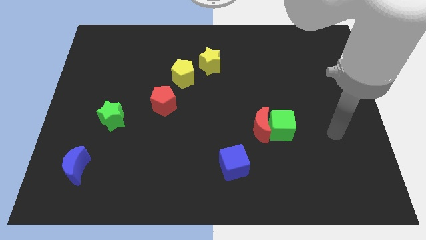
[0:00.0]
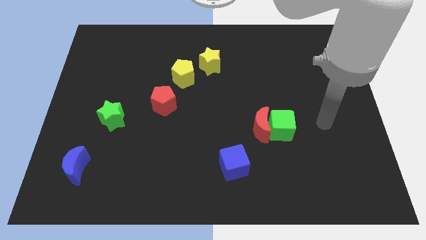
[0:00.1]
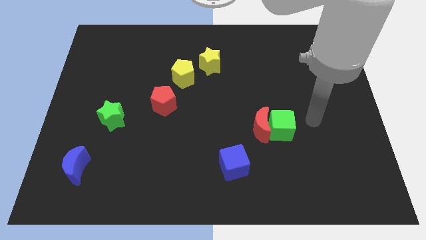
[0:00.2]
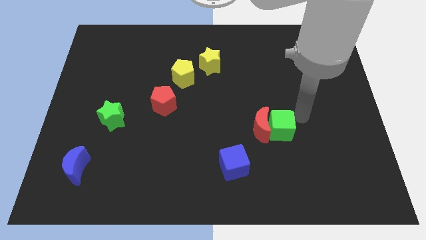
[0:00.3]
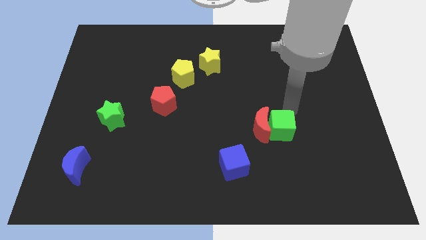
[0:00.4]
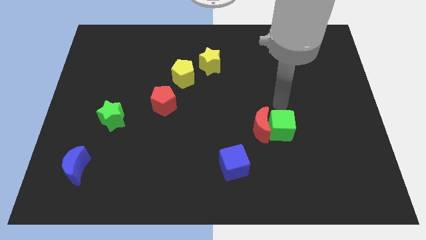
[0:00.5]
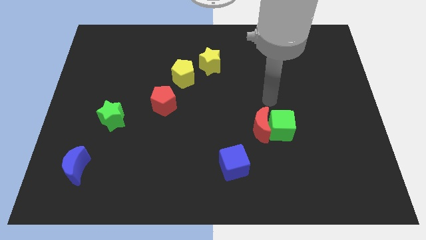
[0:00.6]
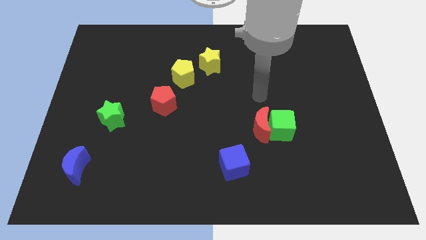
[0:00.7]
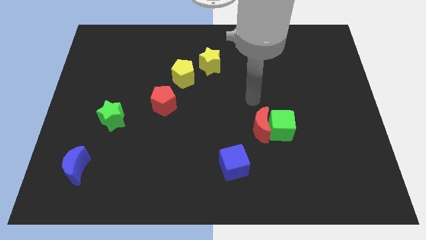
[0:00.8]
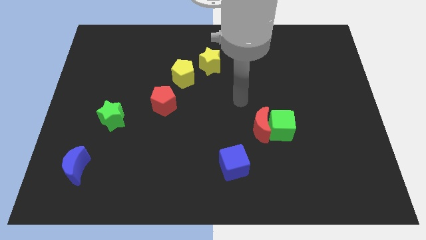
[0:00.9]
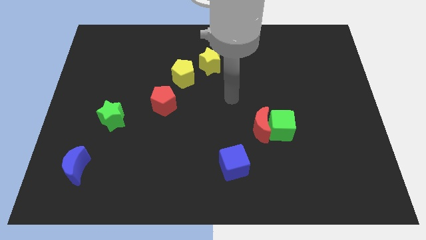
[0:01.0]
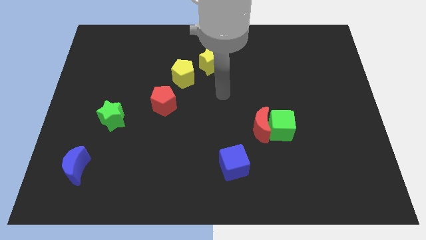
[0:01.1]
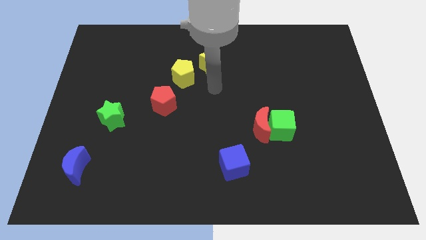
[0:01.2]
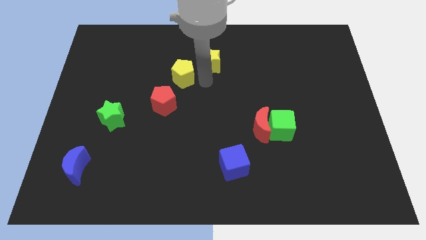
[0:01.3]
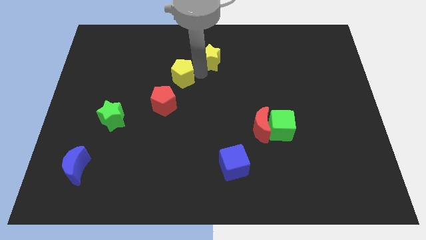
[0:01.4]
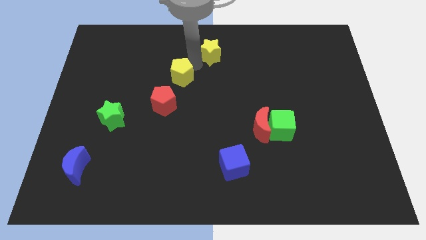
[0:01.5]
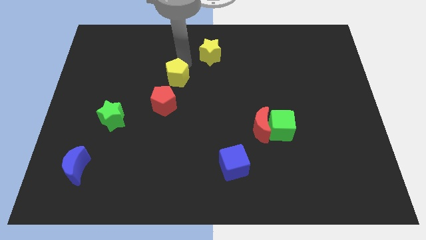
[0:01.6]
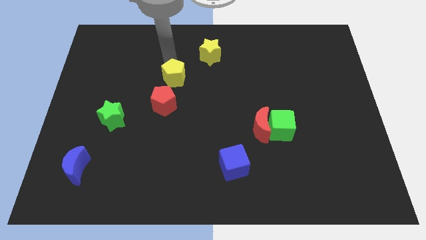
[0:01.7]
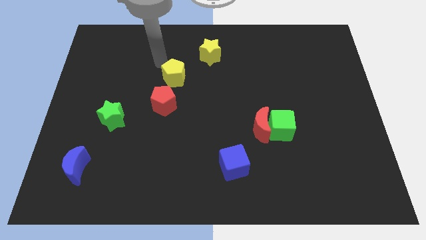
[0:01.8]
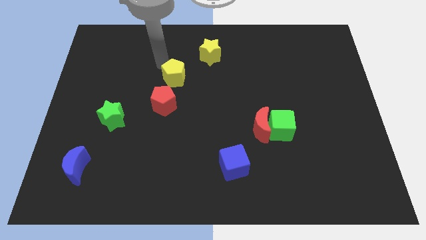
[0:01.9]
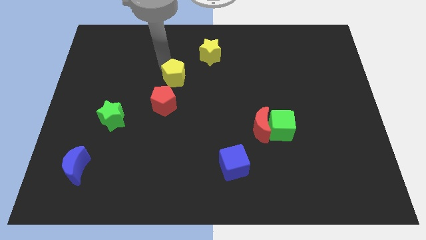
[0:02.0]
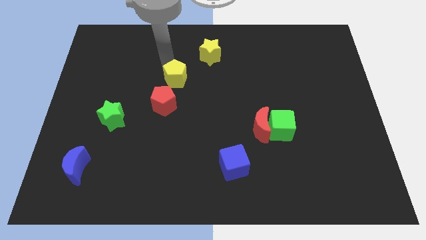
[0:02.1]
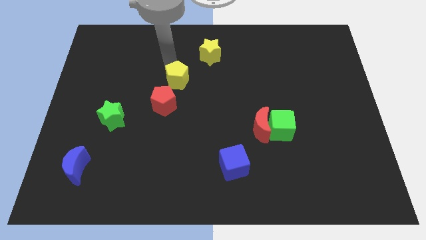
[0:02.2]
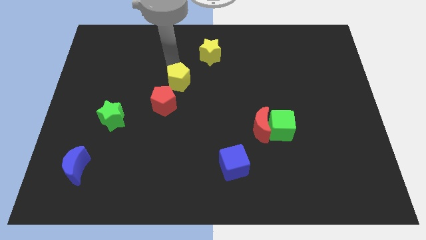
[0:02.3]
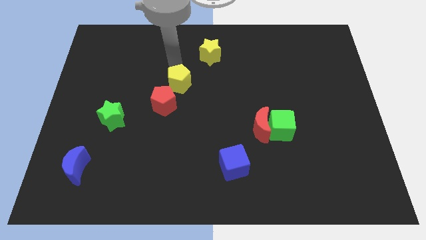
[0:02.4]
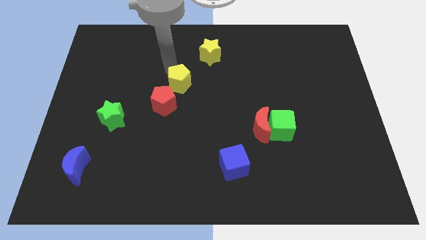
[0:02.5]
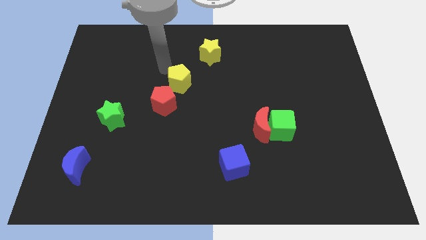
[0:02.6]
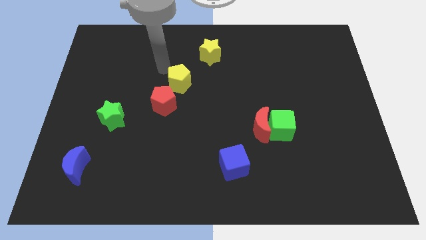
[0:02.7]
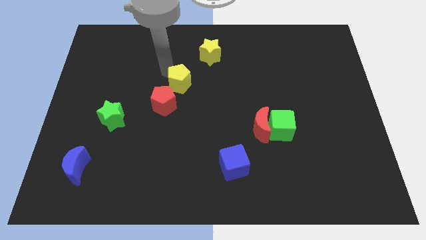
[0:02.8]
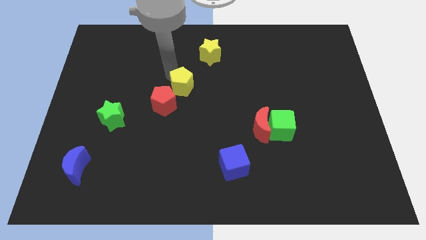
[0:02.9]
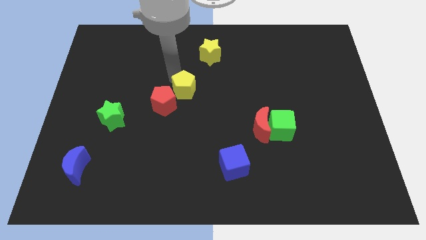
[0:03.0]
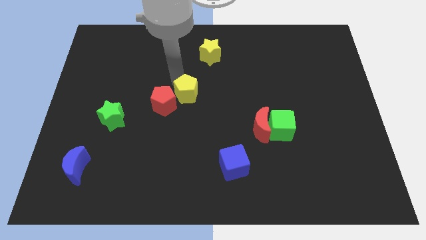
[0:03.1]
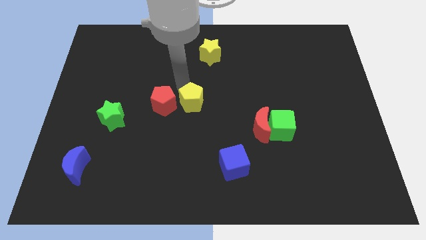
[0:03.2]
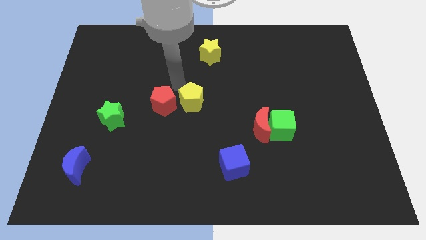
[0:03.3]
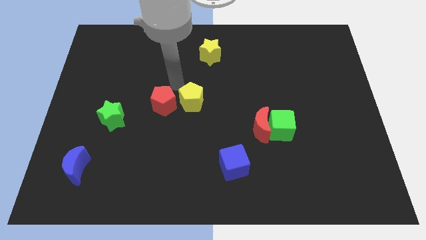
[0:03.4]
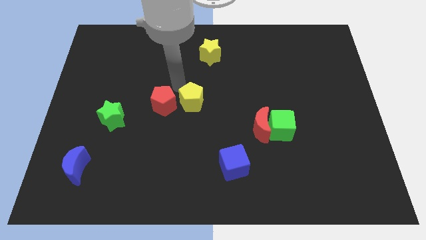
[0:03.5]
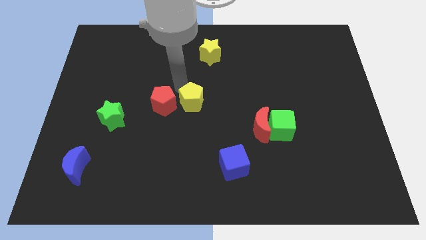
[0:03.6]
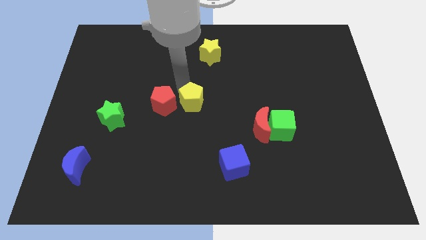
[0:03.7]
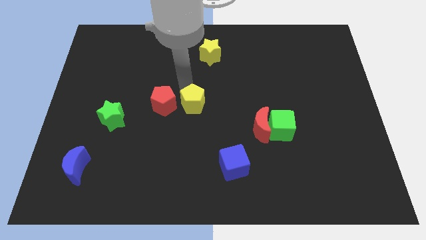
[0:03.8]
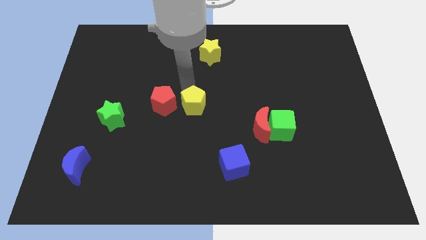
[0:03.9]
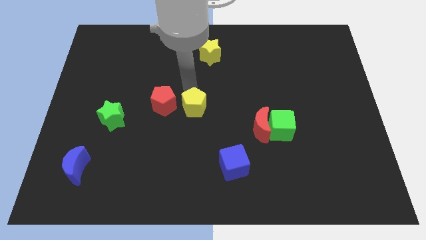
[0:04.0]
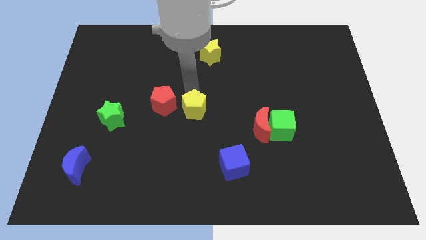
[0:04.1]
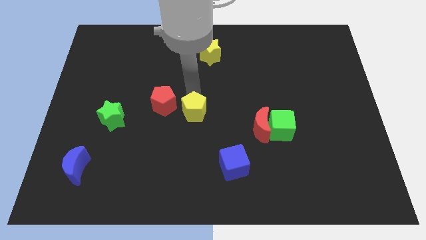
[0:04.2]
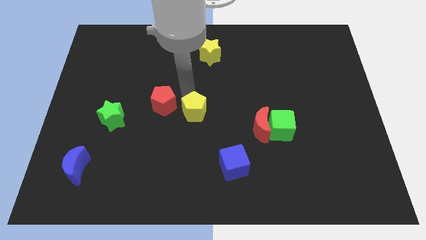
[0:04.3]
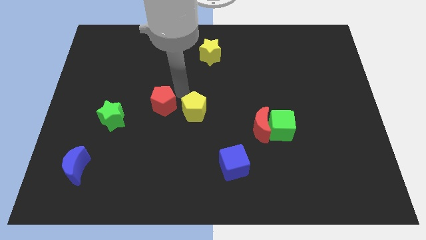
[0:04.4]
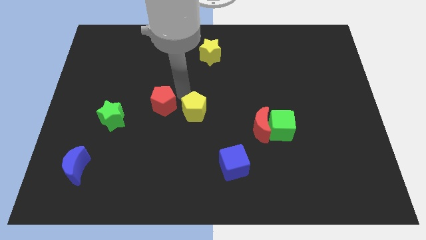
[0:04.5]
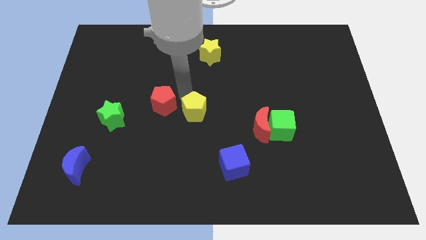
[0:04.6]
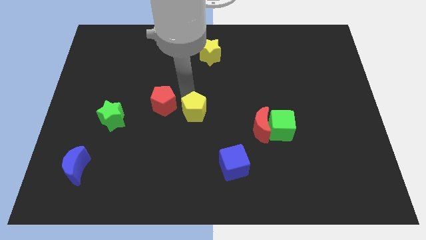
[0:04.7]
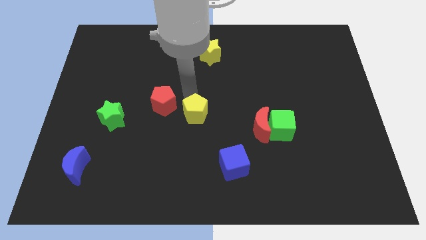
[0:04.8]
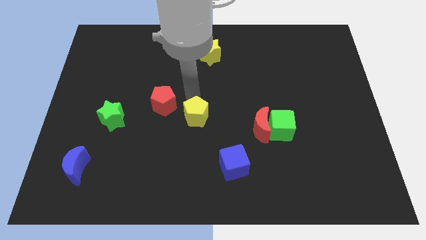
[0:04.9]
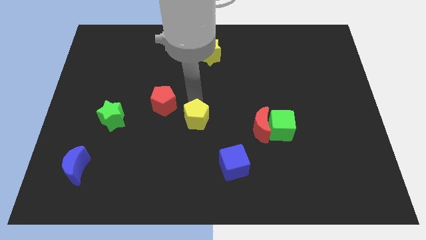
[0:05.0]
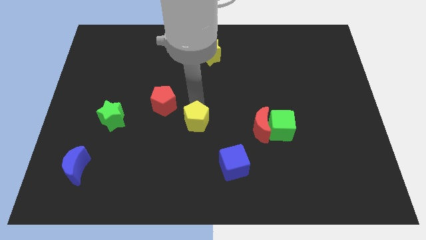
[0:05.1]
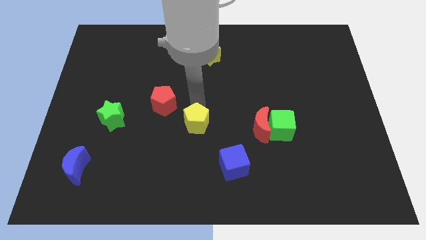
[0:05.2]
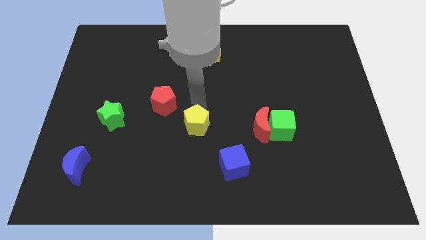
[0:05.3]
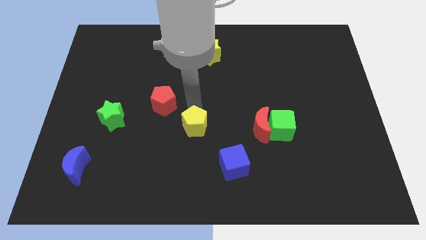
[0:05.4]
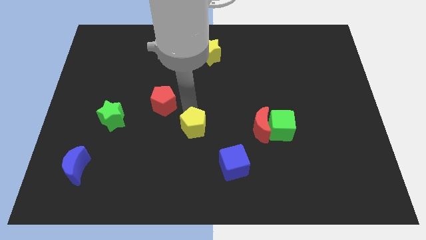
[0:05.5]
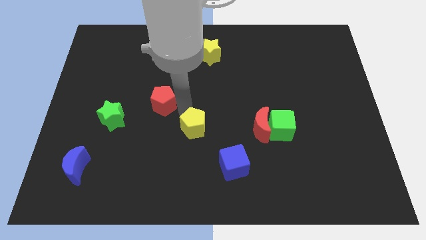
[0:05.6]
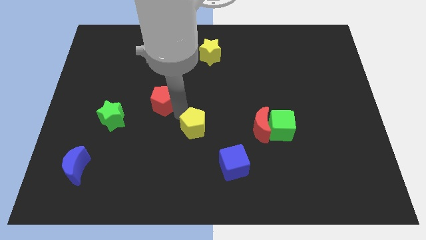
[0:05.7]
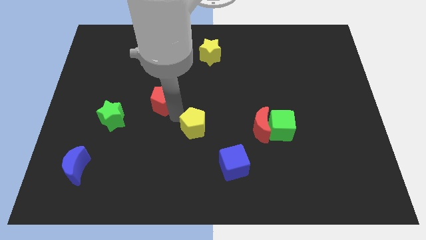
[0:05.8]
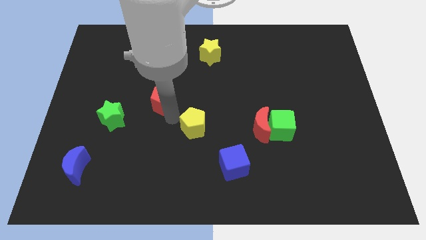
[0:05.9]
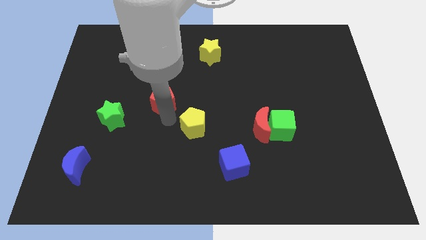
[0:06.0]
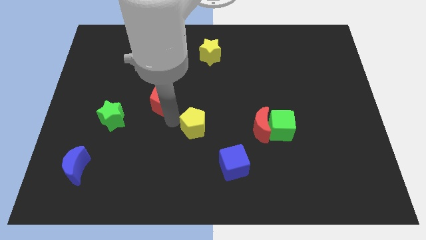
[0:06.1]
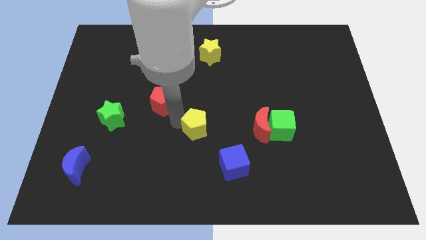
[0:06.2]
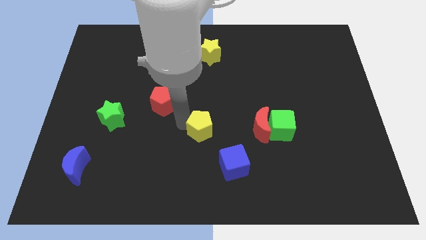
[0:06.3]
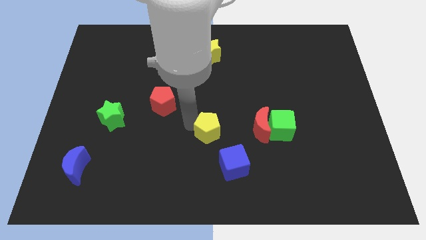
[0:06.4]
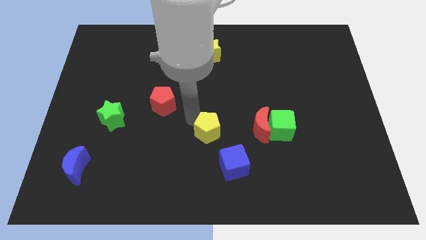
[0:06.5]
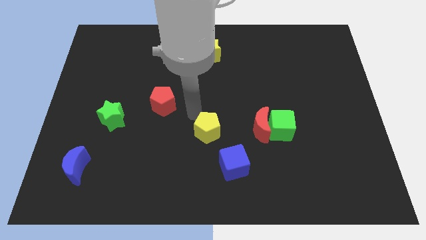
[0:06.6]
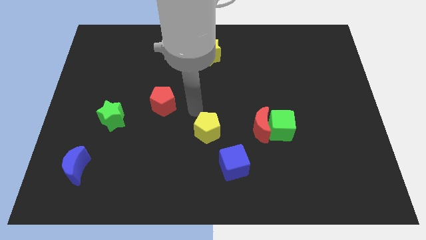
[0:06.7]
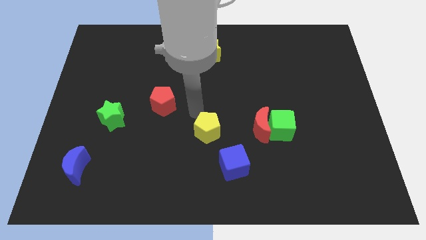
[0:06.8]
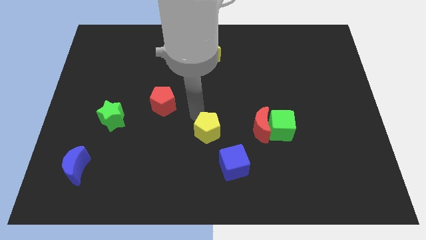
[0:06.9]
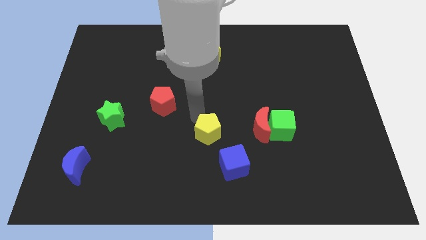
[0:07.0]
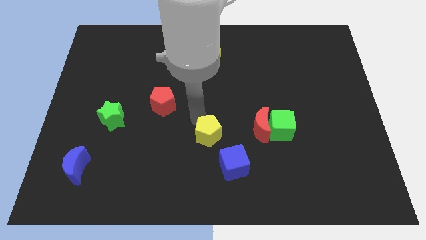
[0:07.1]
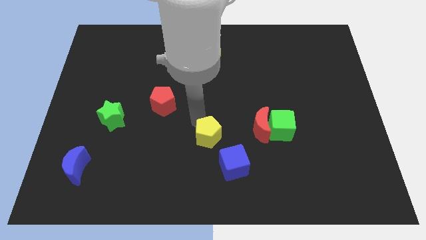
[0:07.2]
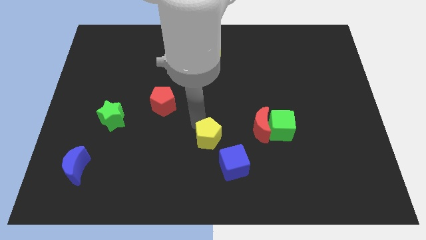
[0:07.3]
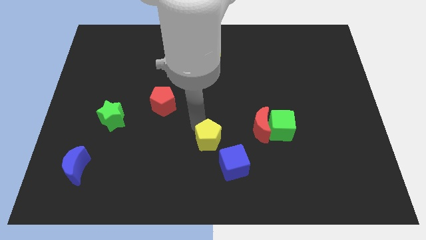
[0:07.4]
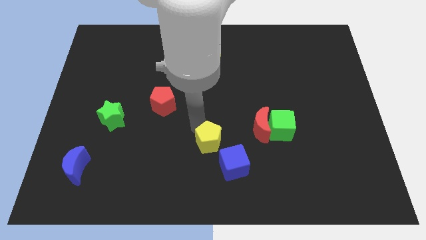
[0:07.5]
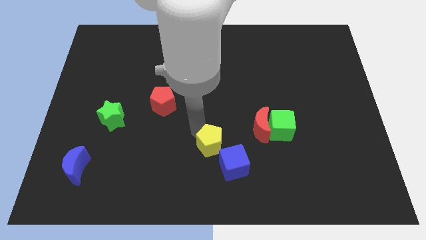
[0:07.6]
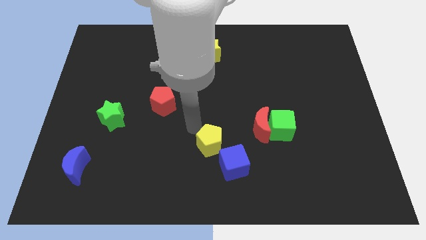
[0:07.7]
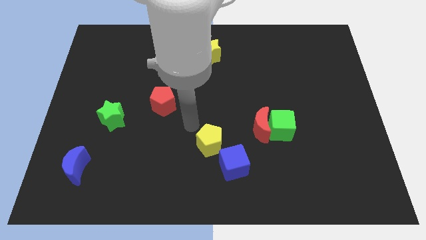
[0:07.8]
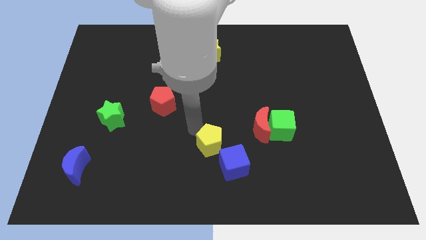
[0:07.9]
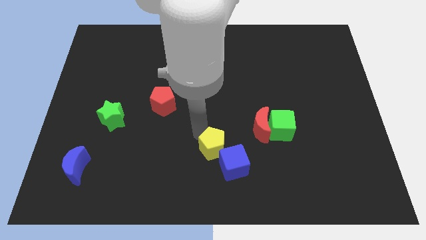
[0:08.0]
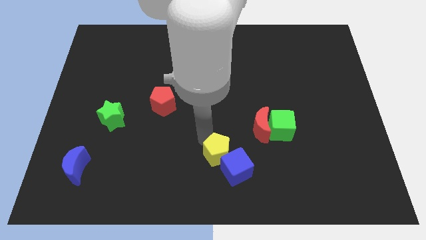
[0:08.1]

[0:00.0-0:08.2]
move the yellow pentagon to the blue cube
